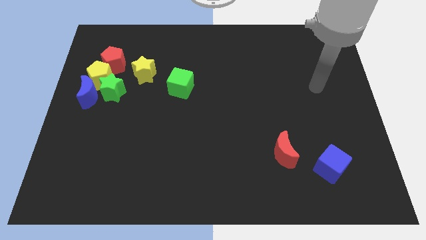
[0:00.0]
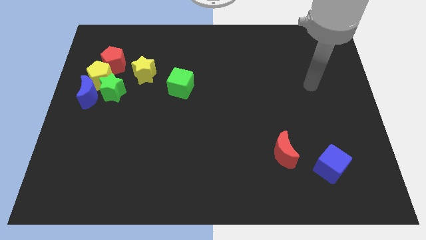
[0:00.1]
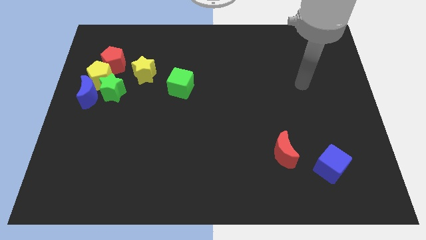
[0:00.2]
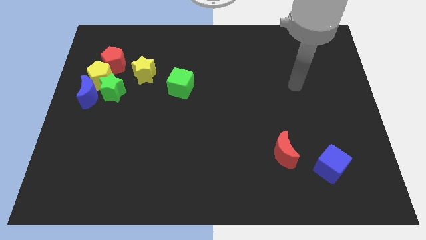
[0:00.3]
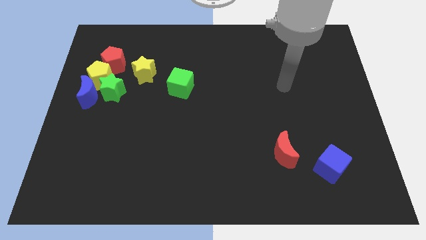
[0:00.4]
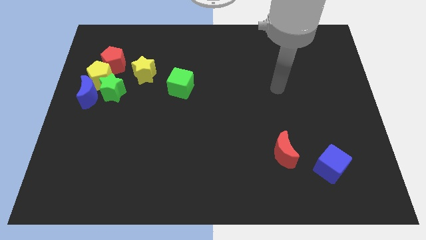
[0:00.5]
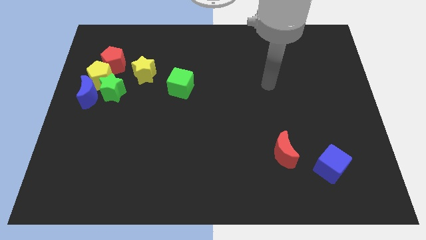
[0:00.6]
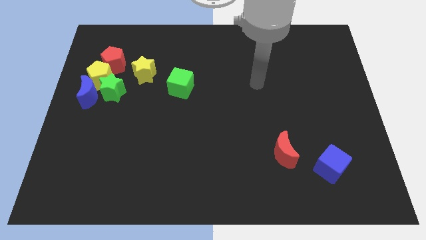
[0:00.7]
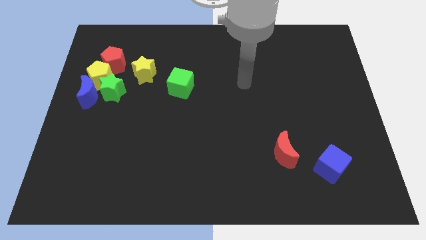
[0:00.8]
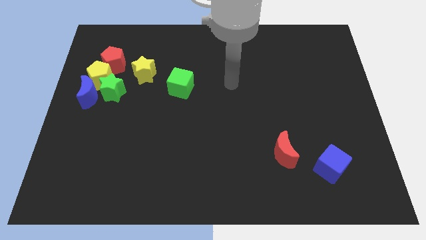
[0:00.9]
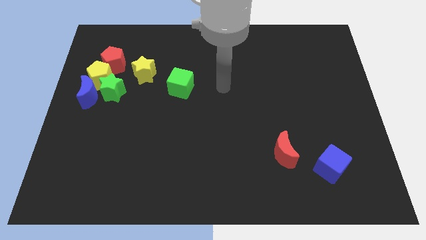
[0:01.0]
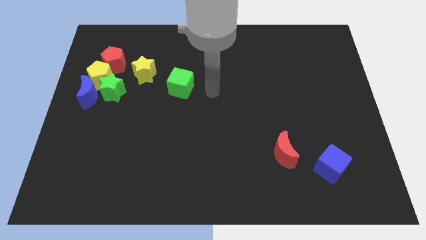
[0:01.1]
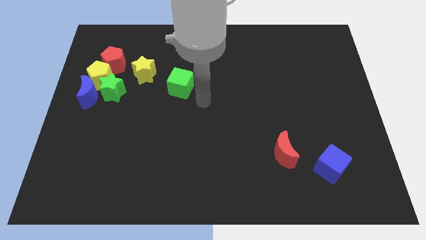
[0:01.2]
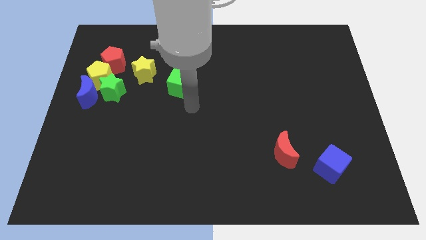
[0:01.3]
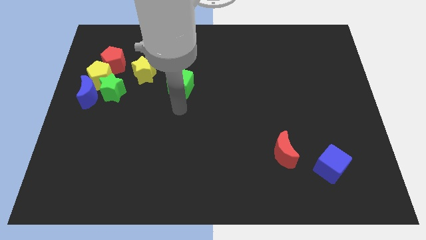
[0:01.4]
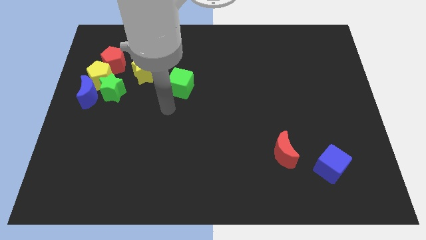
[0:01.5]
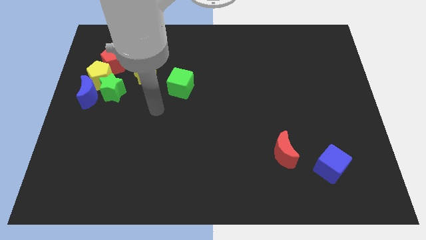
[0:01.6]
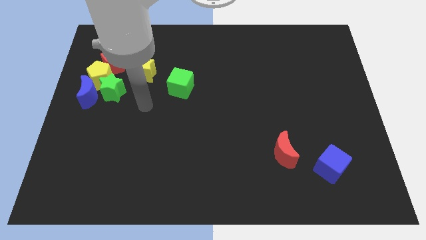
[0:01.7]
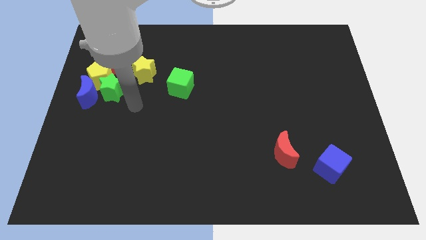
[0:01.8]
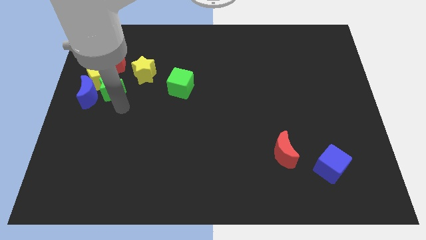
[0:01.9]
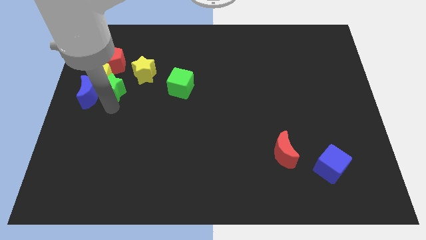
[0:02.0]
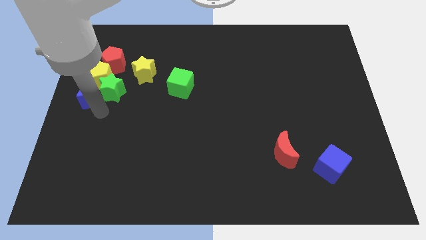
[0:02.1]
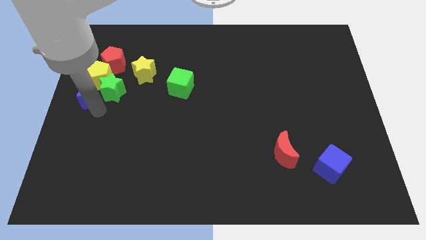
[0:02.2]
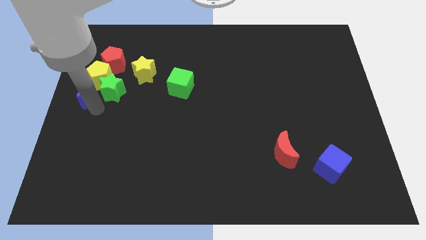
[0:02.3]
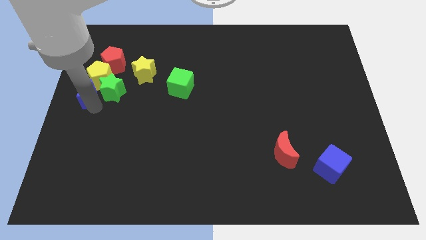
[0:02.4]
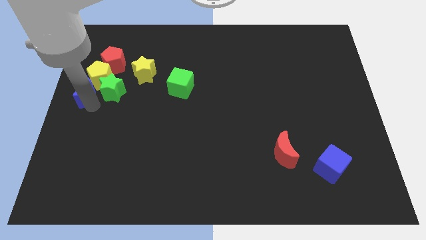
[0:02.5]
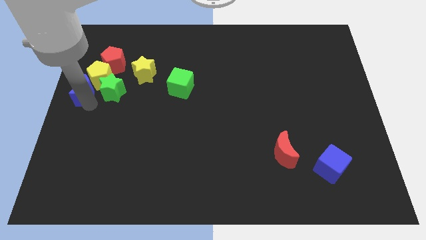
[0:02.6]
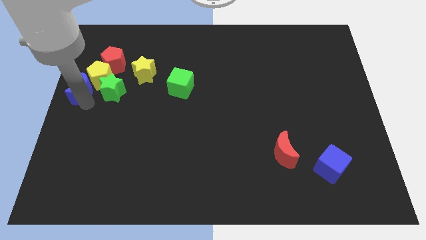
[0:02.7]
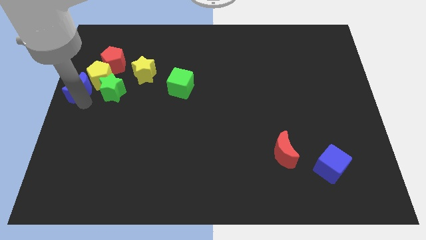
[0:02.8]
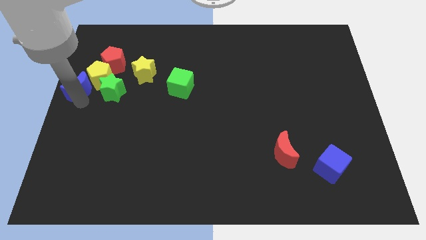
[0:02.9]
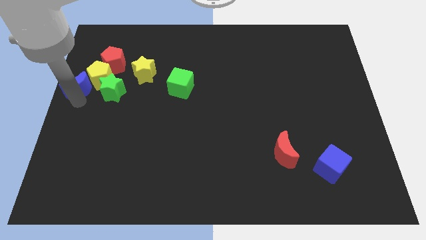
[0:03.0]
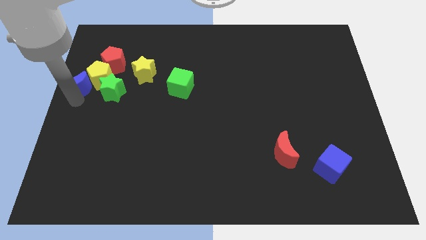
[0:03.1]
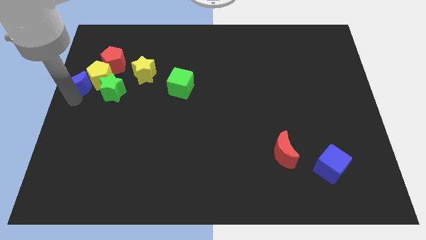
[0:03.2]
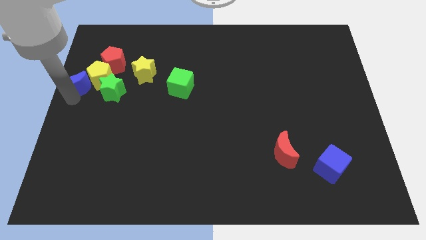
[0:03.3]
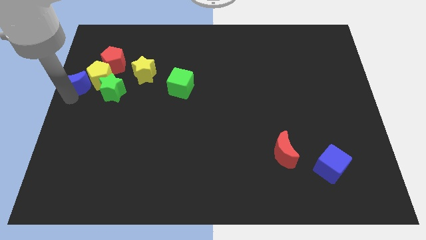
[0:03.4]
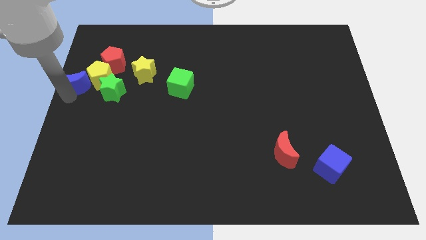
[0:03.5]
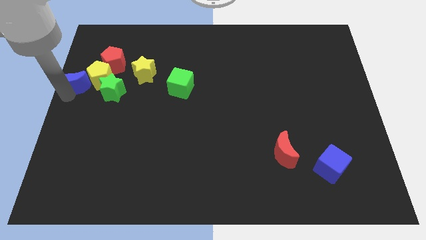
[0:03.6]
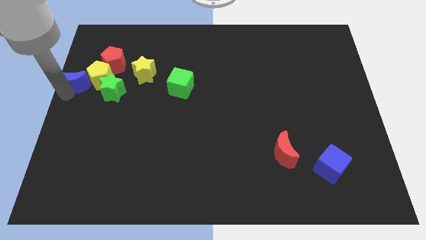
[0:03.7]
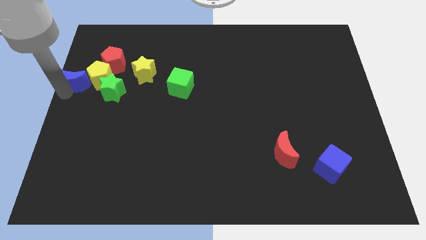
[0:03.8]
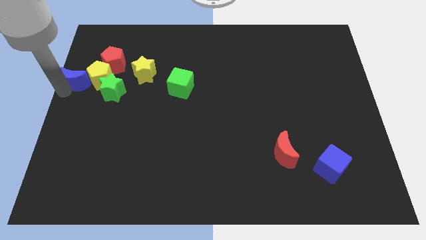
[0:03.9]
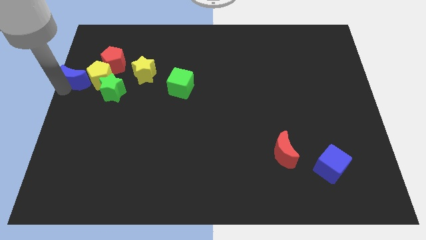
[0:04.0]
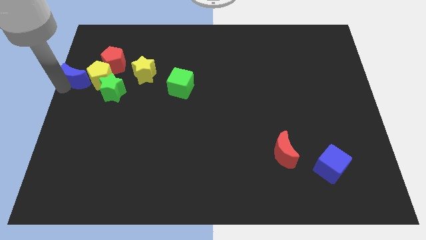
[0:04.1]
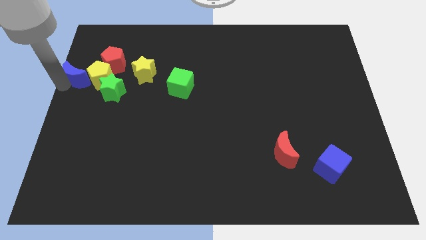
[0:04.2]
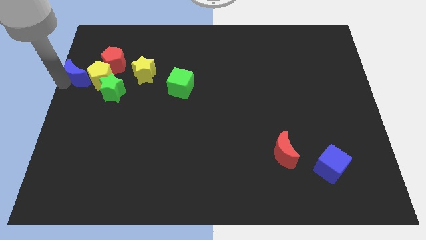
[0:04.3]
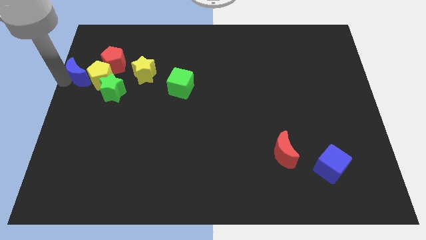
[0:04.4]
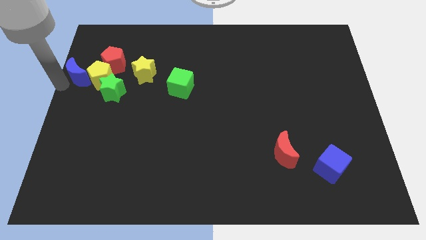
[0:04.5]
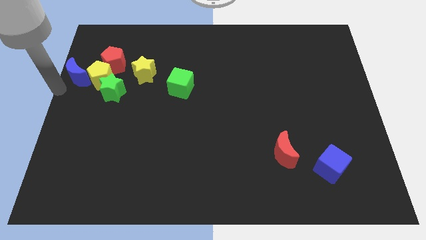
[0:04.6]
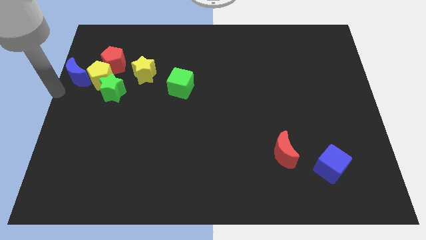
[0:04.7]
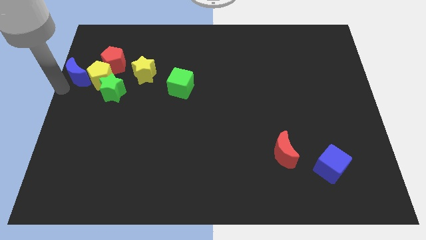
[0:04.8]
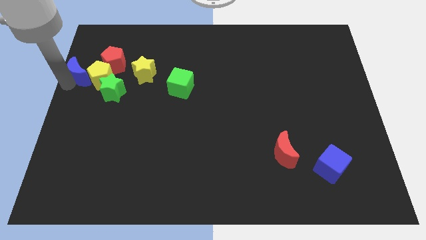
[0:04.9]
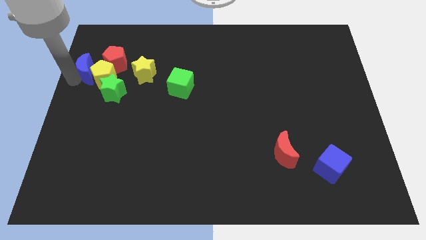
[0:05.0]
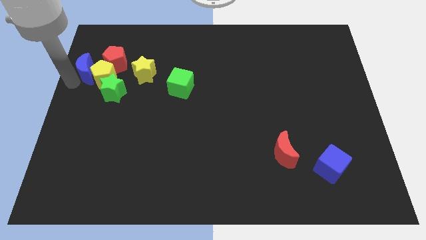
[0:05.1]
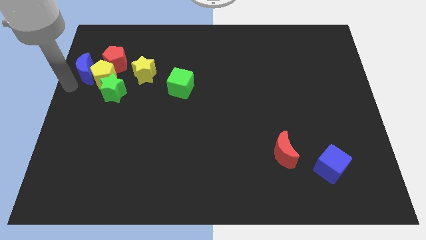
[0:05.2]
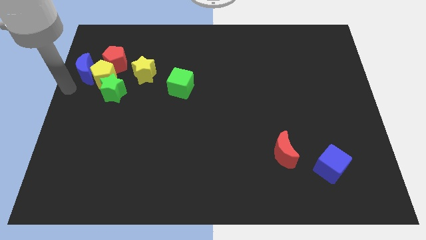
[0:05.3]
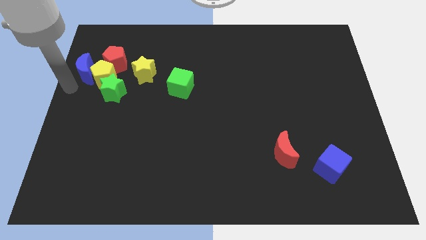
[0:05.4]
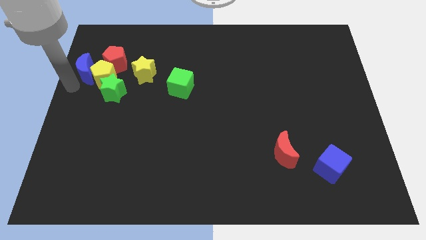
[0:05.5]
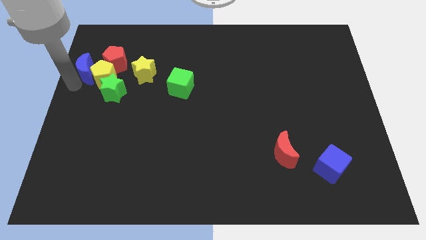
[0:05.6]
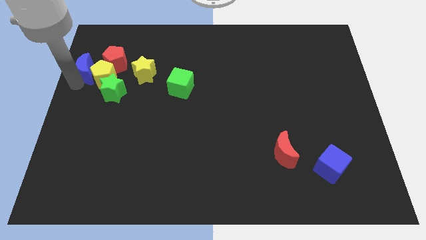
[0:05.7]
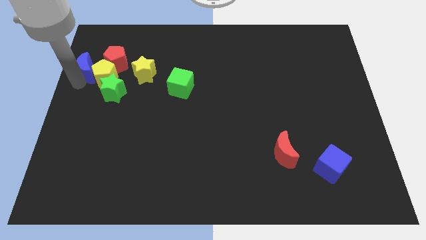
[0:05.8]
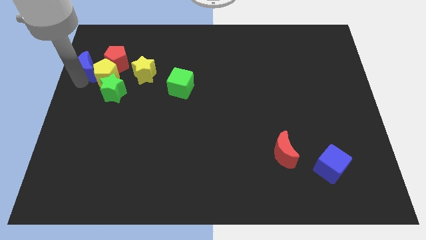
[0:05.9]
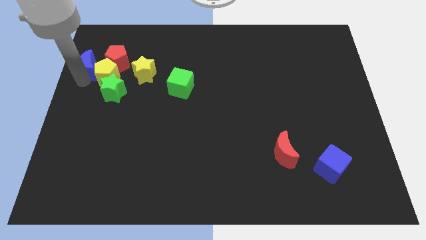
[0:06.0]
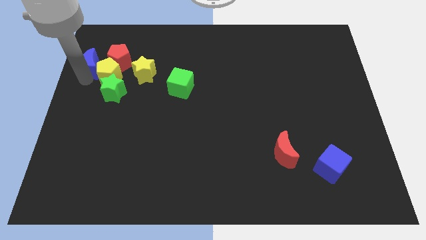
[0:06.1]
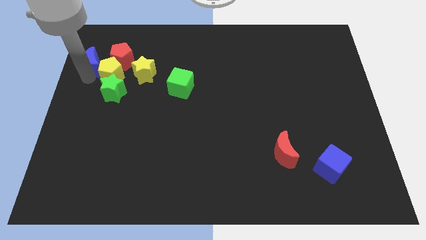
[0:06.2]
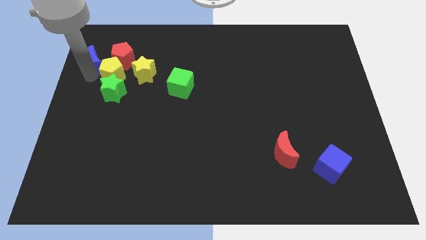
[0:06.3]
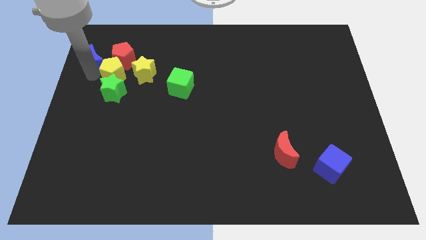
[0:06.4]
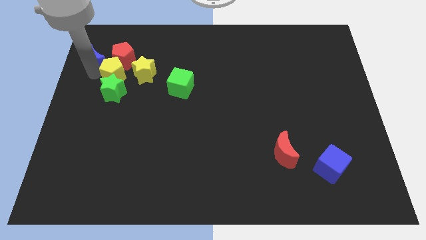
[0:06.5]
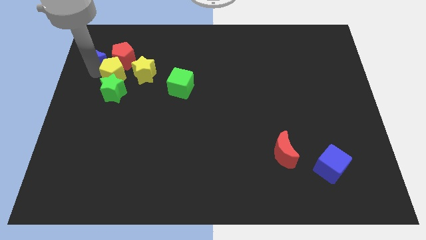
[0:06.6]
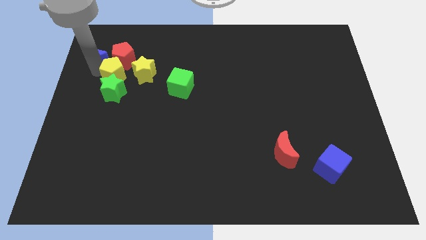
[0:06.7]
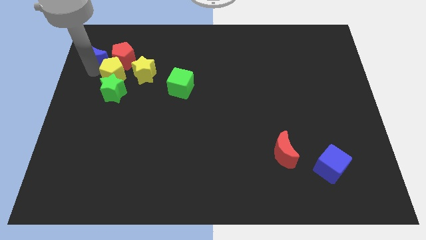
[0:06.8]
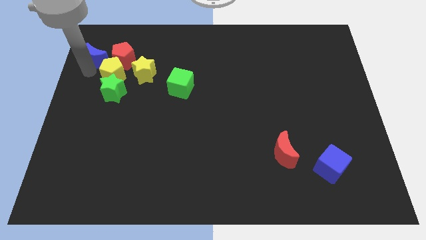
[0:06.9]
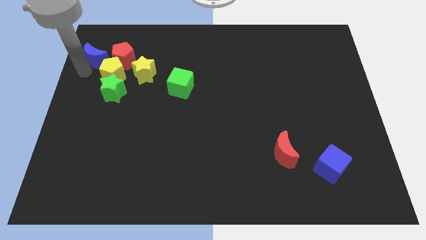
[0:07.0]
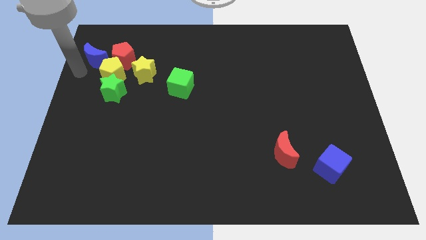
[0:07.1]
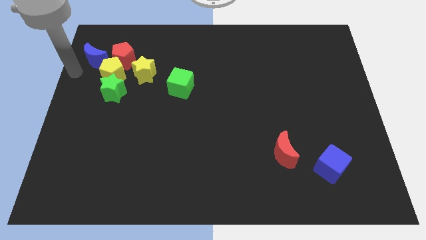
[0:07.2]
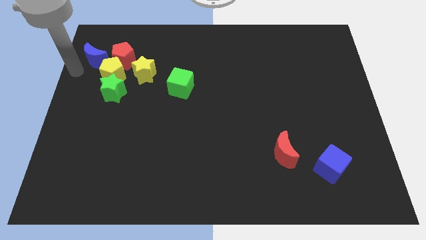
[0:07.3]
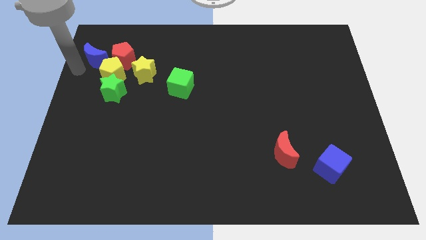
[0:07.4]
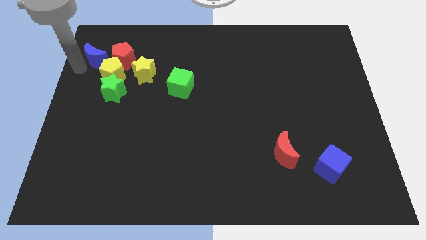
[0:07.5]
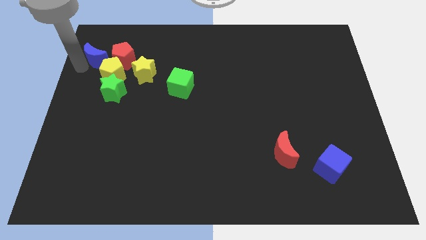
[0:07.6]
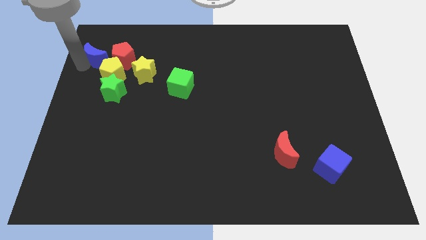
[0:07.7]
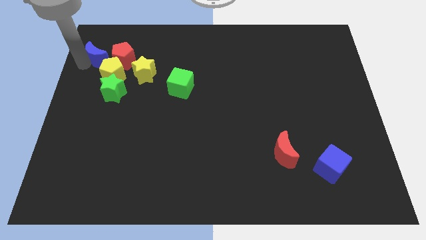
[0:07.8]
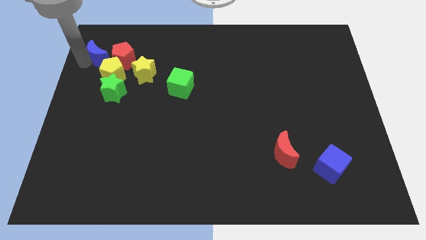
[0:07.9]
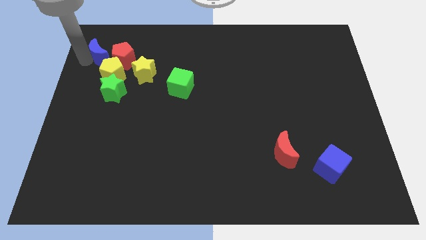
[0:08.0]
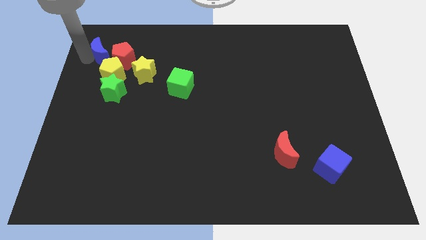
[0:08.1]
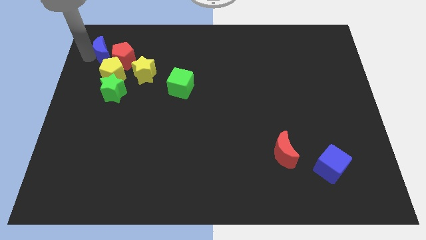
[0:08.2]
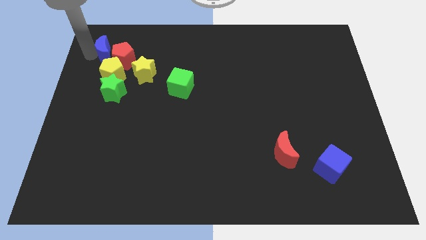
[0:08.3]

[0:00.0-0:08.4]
slide the blue moon up and to the right diagonally a little bit
